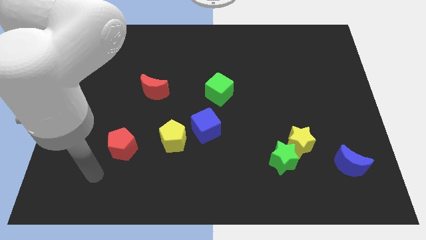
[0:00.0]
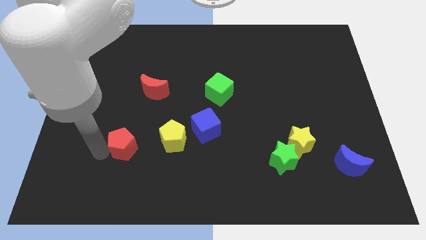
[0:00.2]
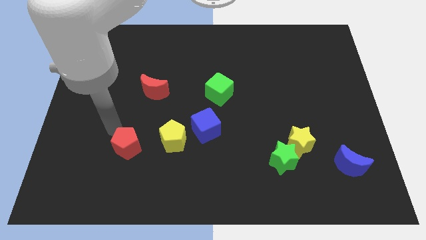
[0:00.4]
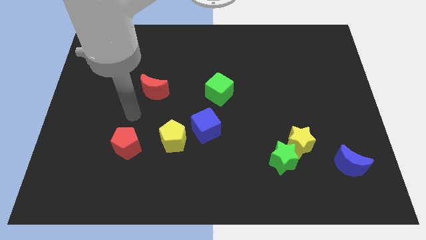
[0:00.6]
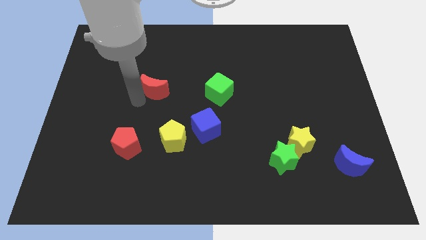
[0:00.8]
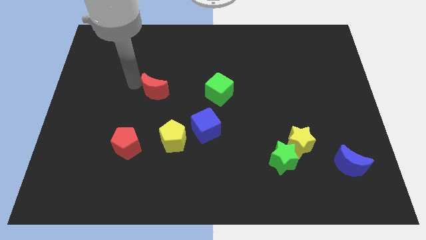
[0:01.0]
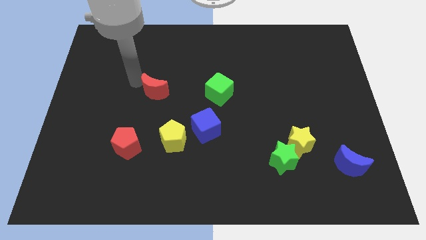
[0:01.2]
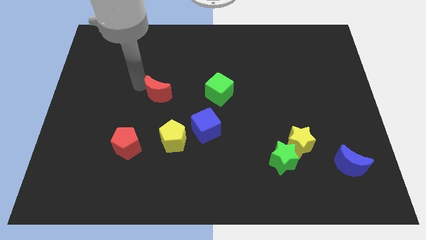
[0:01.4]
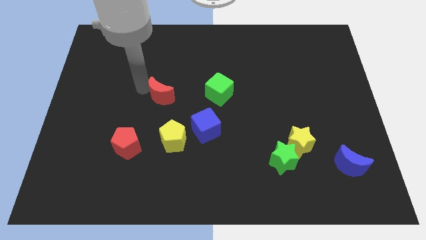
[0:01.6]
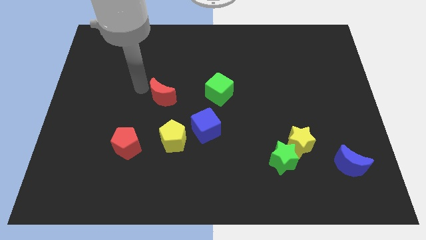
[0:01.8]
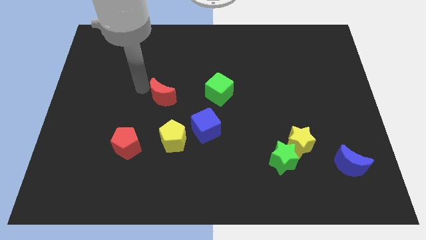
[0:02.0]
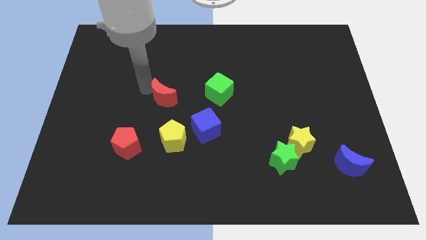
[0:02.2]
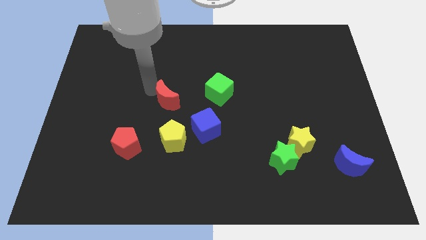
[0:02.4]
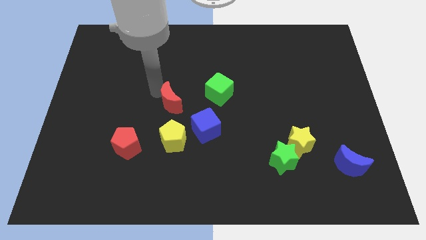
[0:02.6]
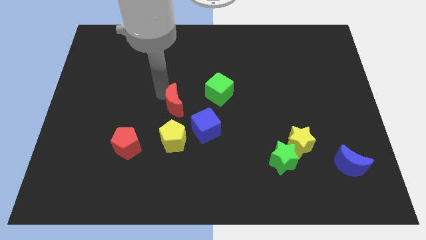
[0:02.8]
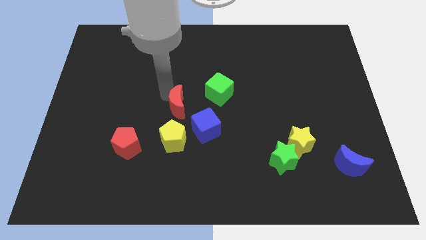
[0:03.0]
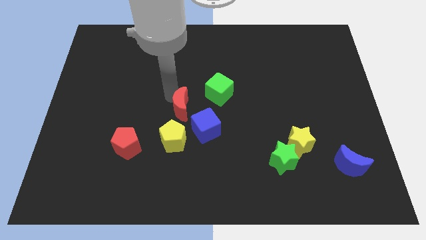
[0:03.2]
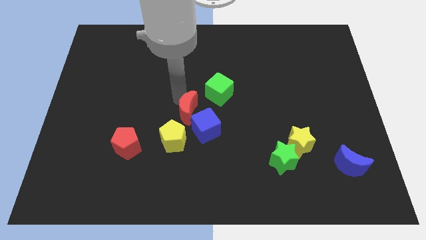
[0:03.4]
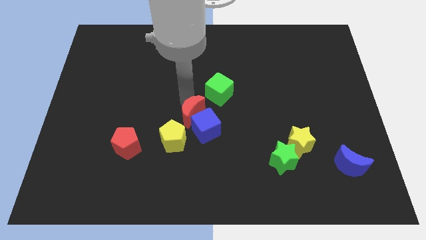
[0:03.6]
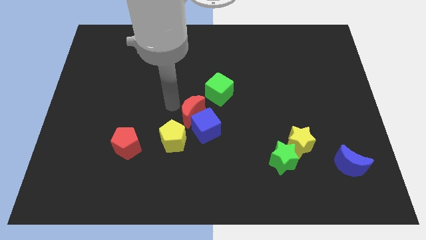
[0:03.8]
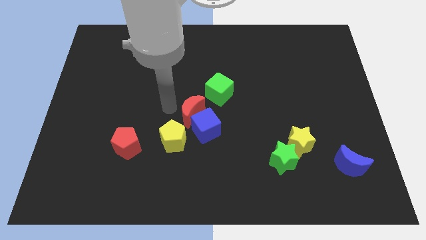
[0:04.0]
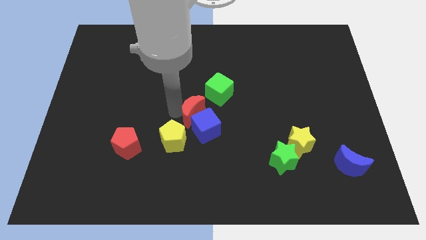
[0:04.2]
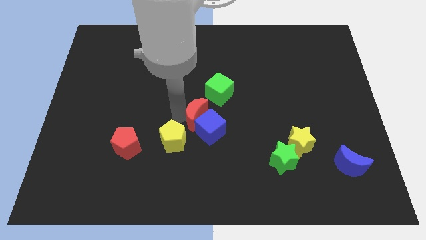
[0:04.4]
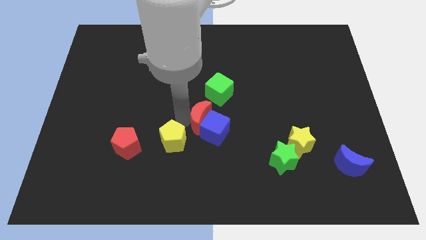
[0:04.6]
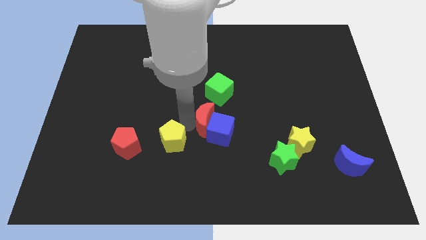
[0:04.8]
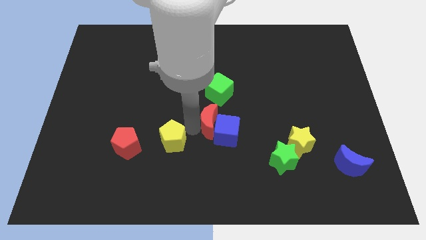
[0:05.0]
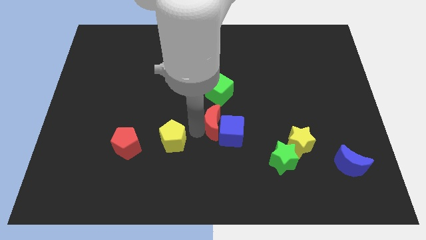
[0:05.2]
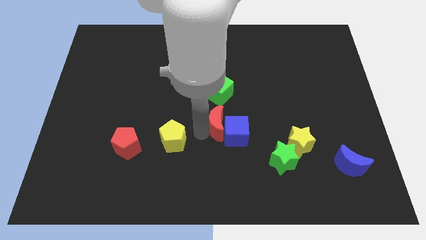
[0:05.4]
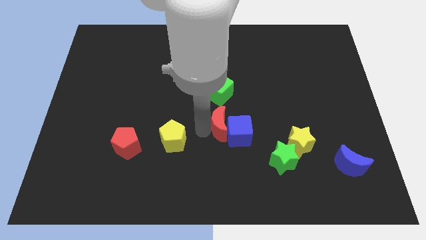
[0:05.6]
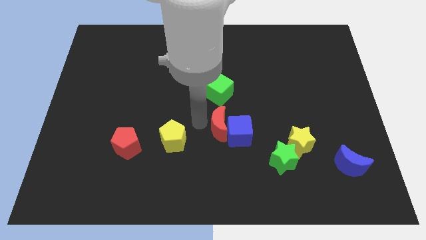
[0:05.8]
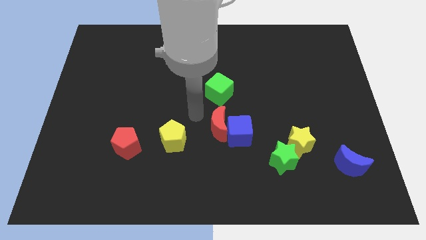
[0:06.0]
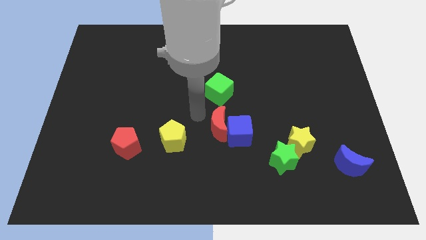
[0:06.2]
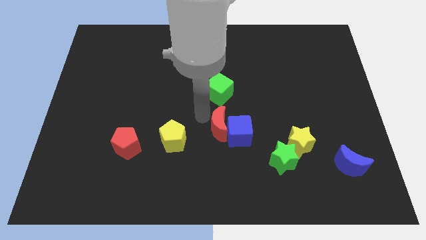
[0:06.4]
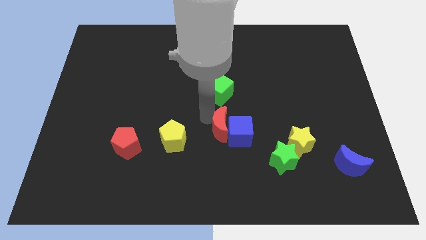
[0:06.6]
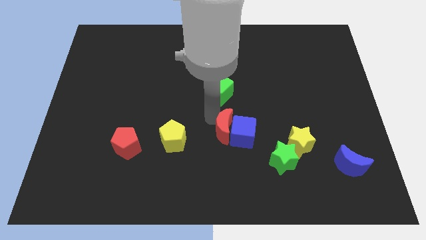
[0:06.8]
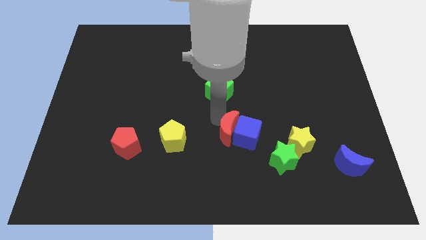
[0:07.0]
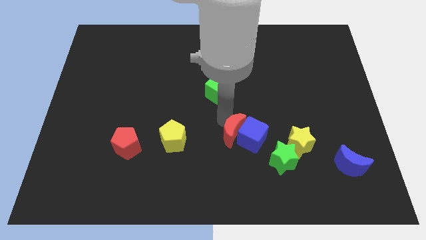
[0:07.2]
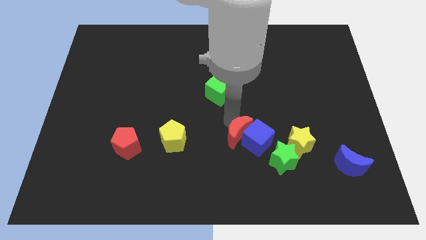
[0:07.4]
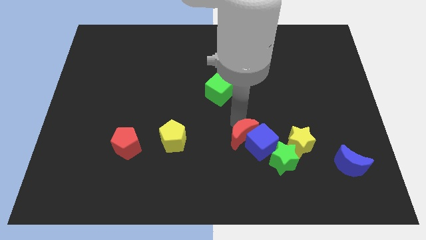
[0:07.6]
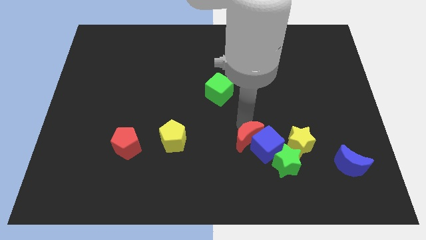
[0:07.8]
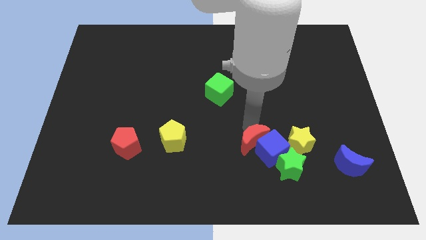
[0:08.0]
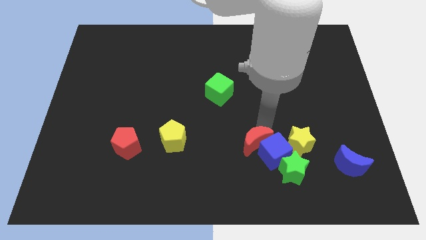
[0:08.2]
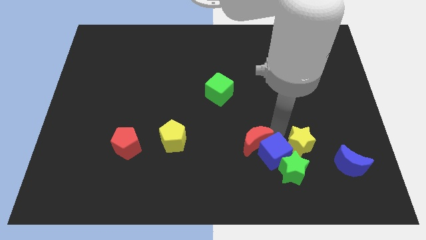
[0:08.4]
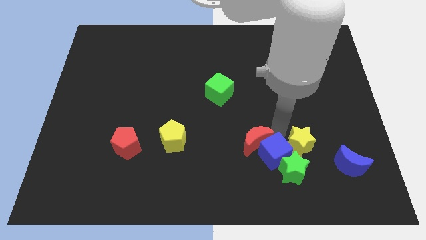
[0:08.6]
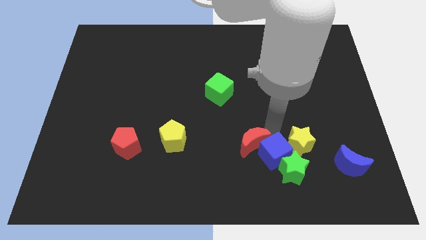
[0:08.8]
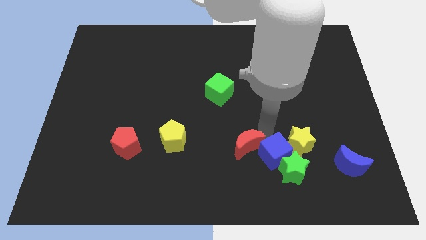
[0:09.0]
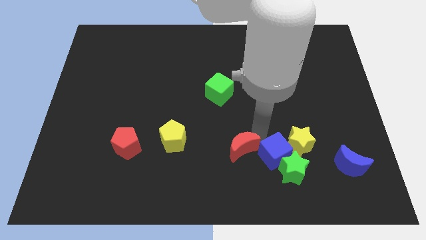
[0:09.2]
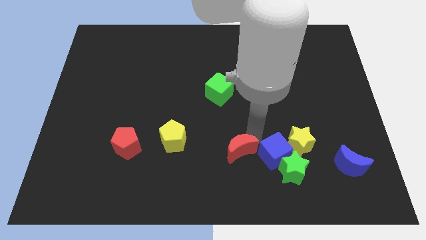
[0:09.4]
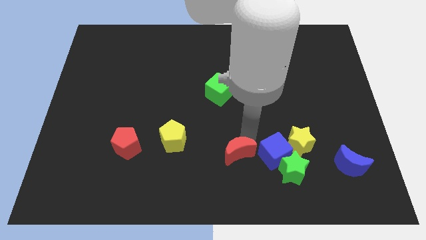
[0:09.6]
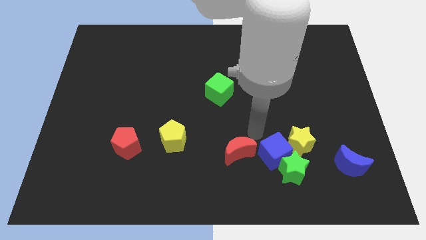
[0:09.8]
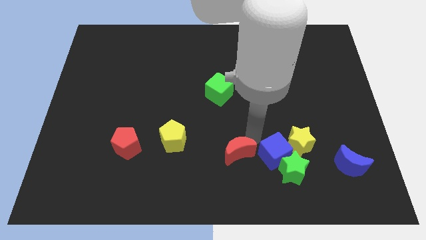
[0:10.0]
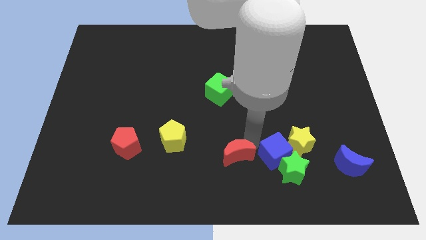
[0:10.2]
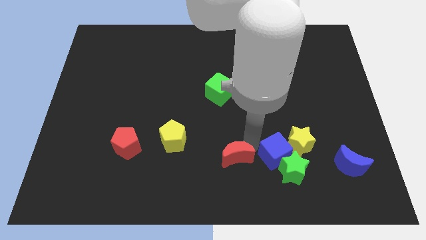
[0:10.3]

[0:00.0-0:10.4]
push the red moon to the bottom side

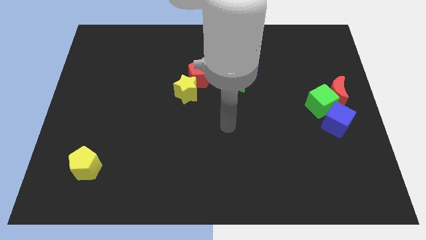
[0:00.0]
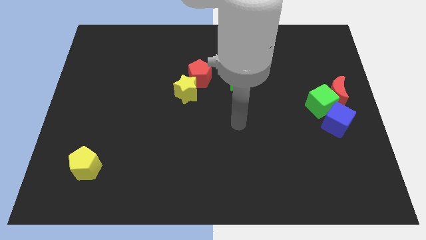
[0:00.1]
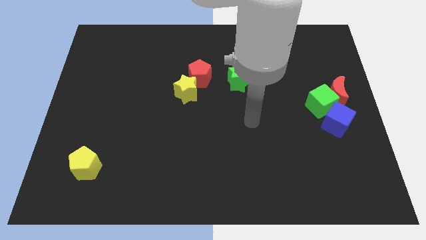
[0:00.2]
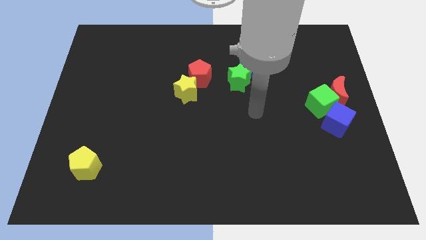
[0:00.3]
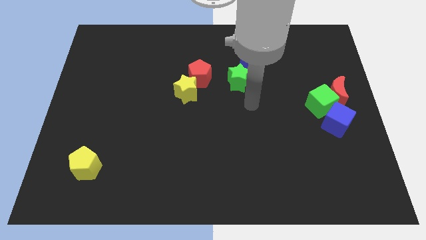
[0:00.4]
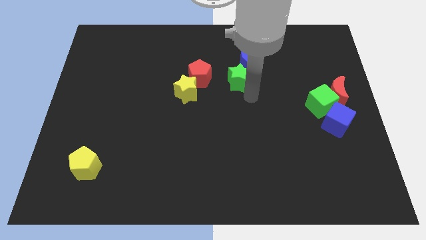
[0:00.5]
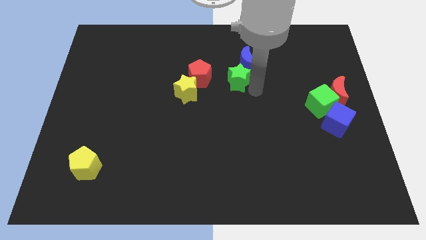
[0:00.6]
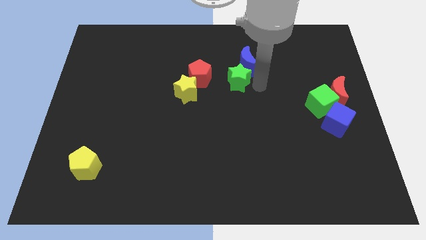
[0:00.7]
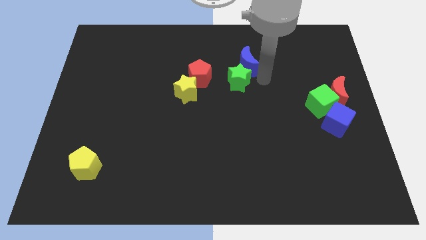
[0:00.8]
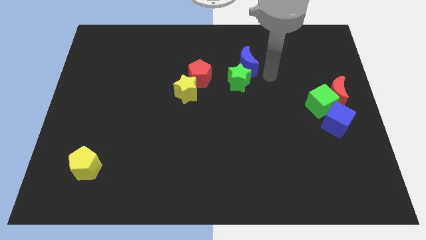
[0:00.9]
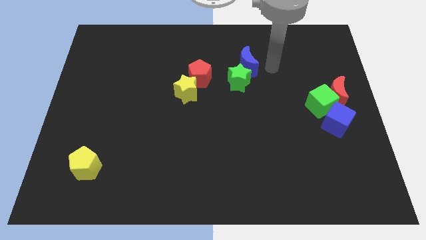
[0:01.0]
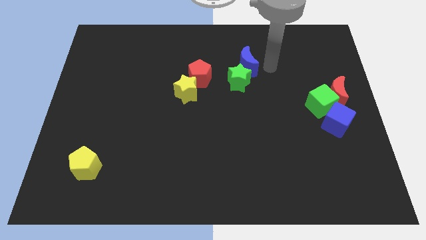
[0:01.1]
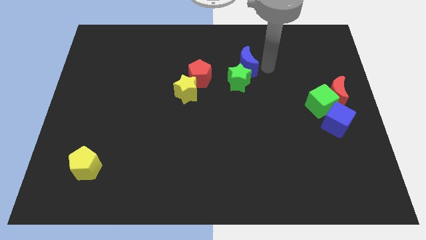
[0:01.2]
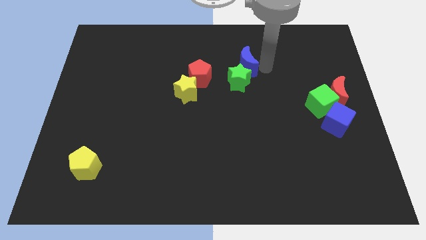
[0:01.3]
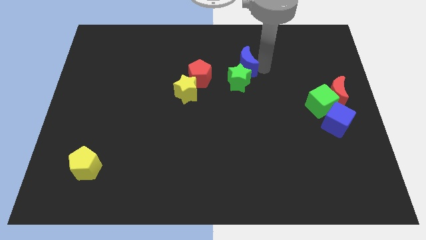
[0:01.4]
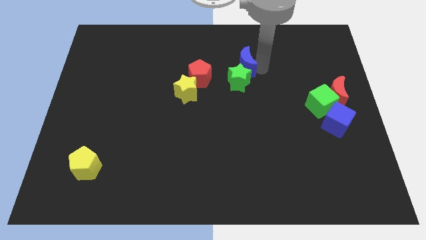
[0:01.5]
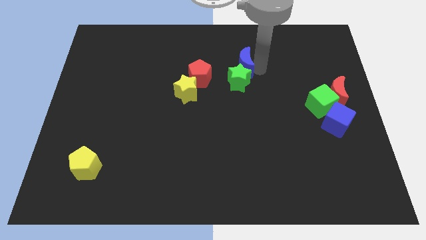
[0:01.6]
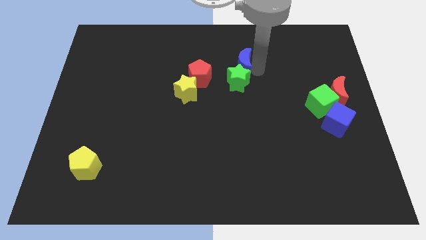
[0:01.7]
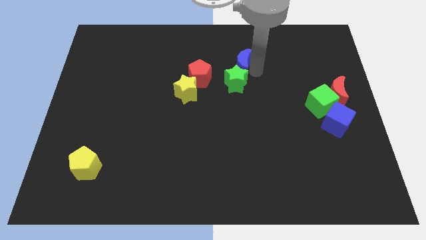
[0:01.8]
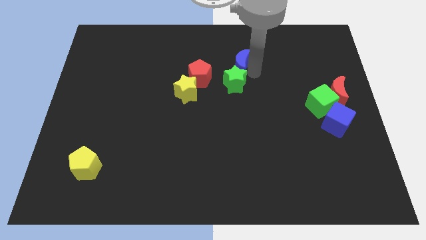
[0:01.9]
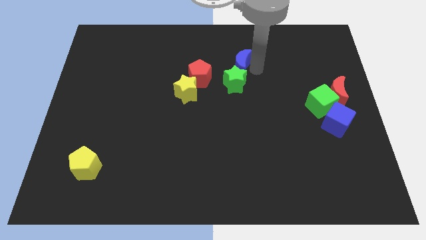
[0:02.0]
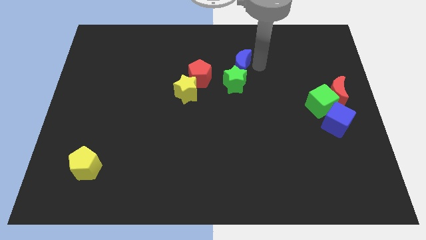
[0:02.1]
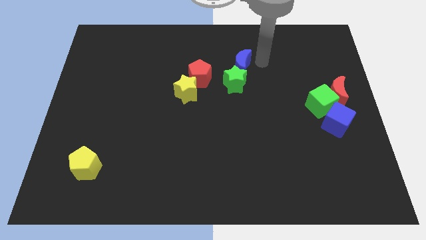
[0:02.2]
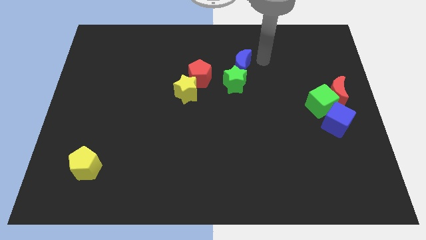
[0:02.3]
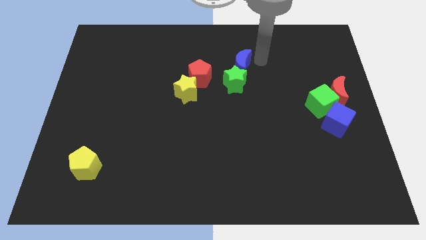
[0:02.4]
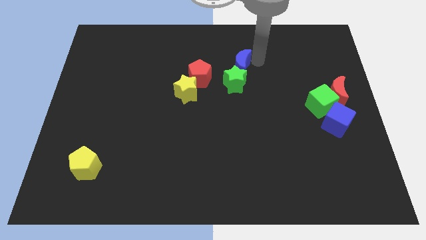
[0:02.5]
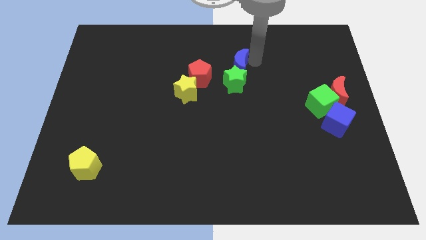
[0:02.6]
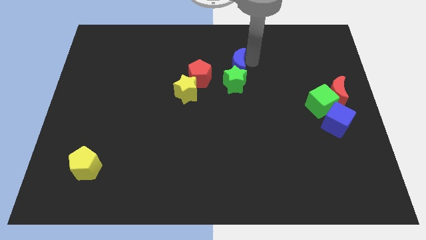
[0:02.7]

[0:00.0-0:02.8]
push the blue moon to the middle of the board
